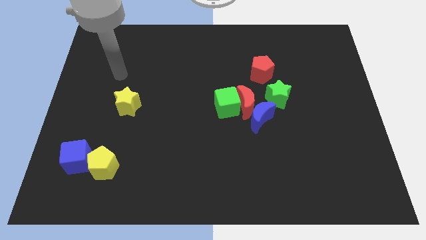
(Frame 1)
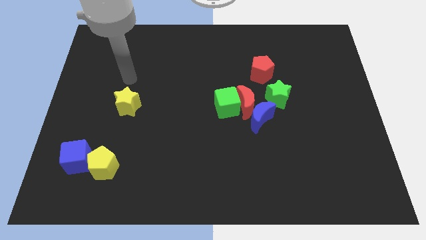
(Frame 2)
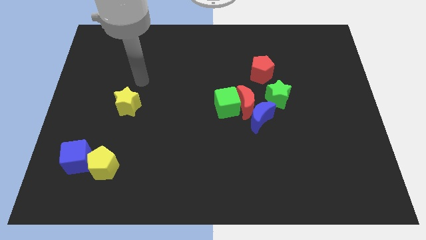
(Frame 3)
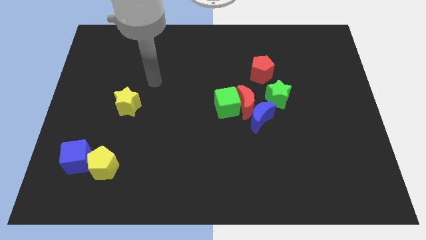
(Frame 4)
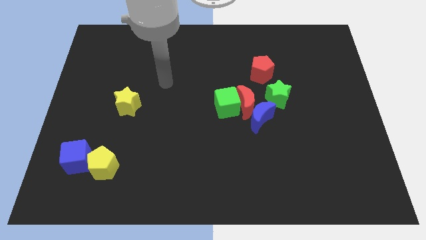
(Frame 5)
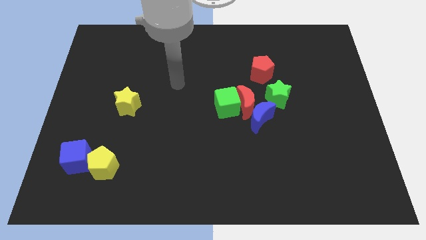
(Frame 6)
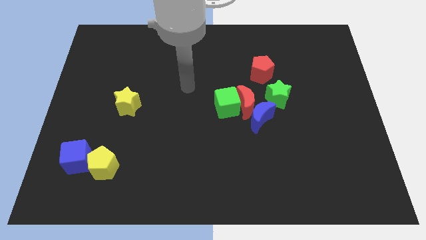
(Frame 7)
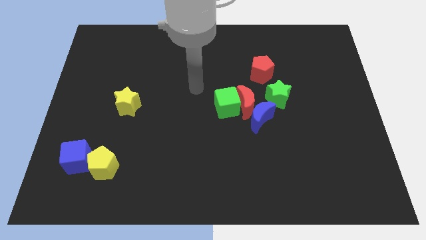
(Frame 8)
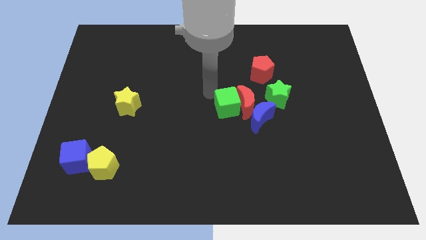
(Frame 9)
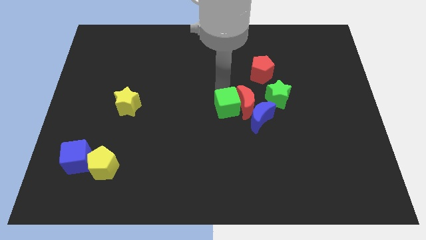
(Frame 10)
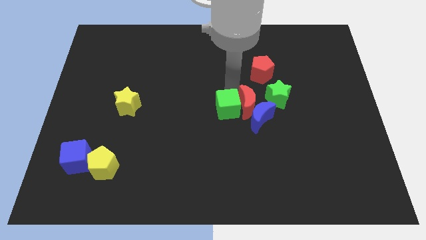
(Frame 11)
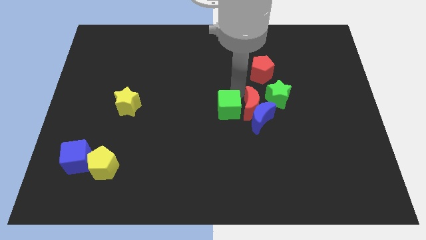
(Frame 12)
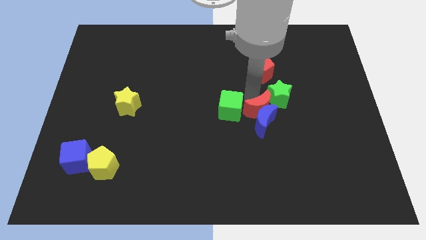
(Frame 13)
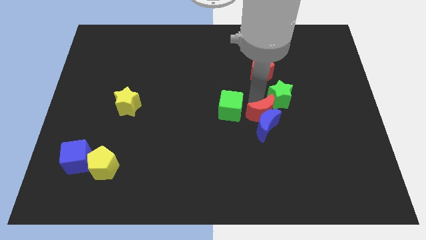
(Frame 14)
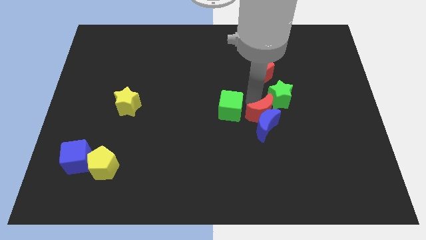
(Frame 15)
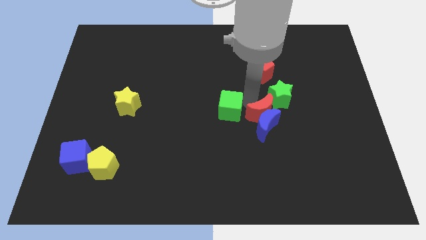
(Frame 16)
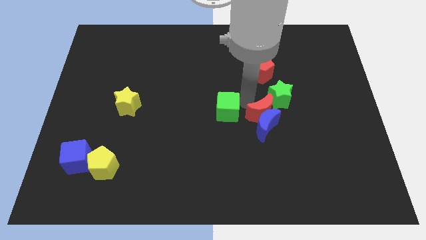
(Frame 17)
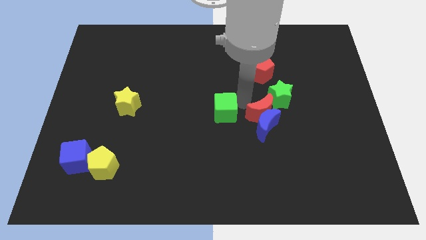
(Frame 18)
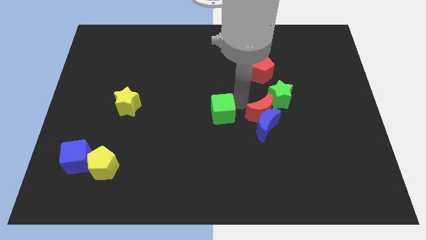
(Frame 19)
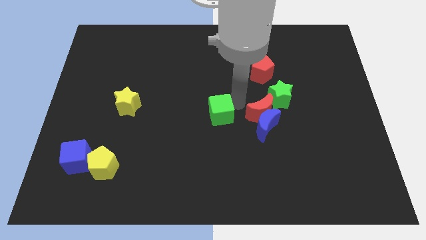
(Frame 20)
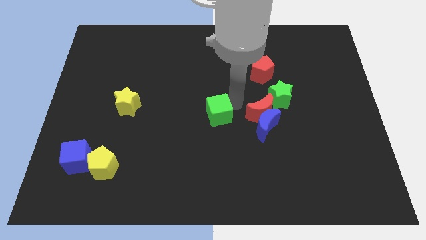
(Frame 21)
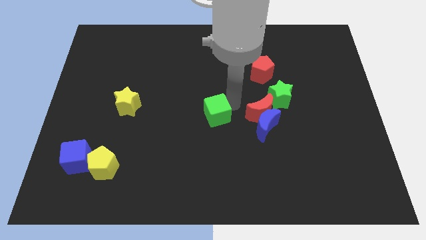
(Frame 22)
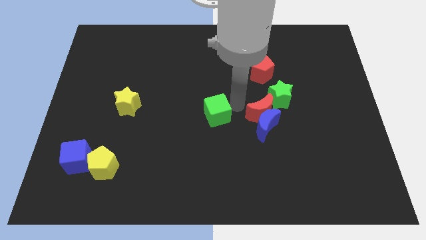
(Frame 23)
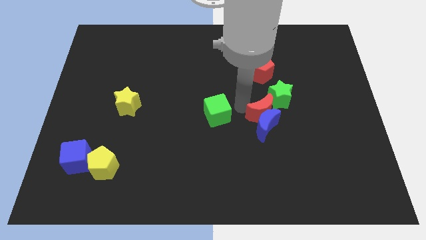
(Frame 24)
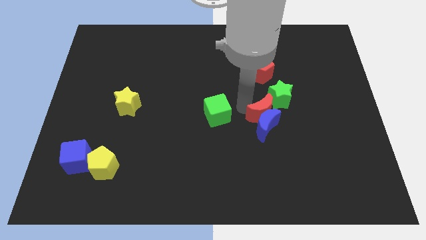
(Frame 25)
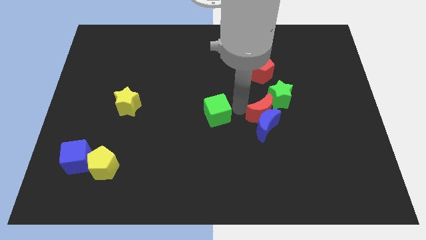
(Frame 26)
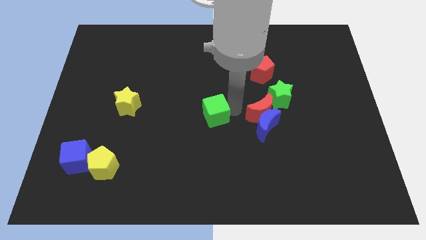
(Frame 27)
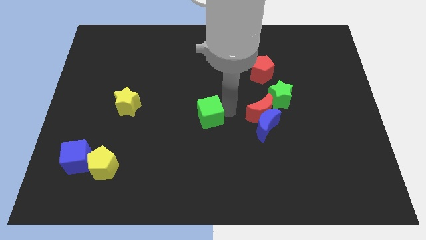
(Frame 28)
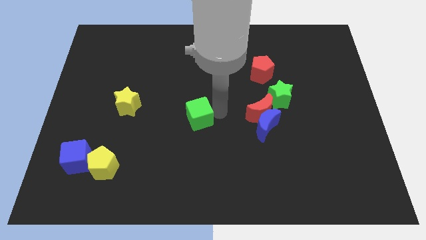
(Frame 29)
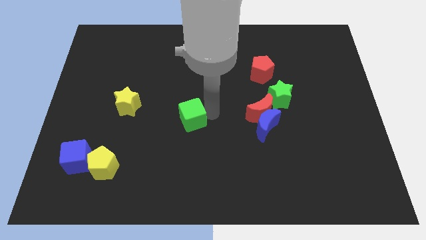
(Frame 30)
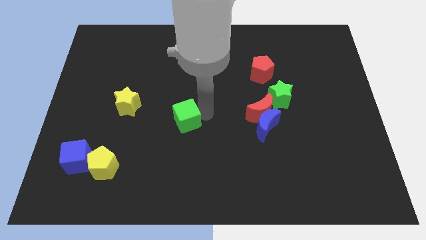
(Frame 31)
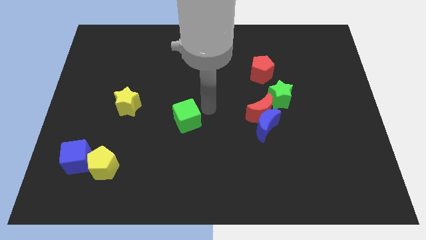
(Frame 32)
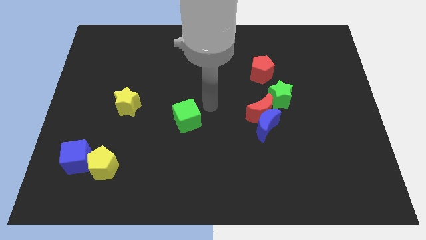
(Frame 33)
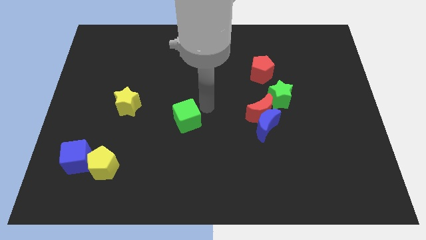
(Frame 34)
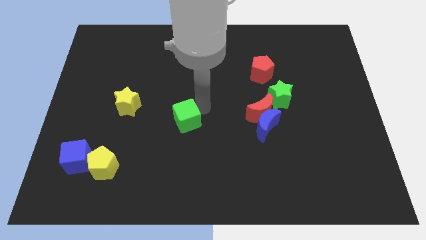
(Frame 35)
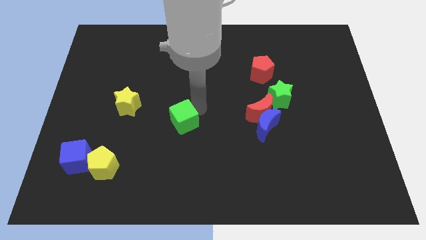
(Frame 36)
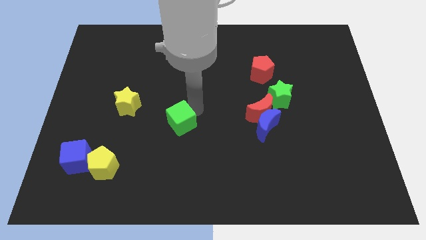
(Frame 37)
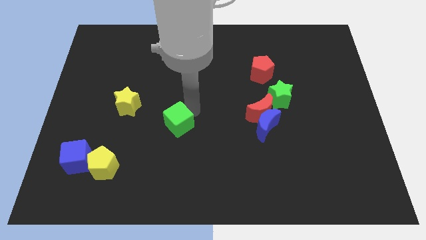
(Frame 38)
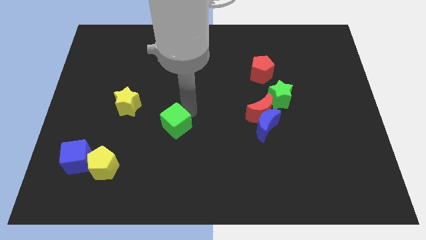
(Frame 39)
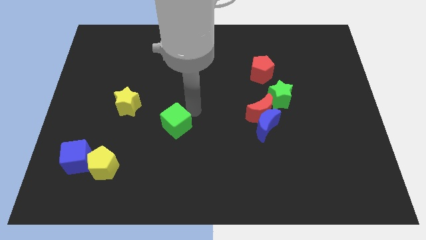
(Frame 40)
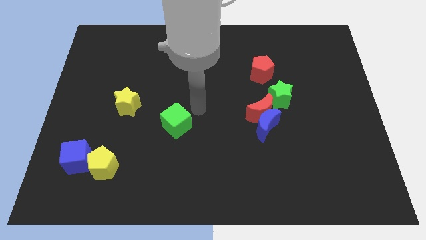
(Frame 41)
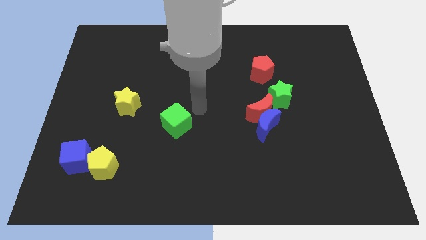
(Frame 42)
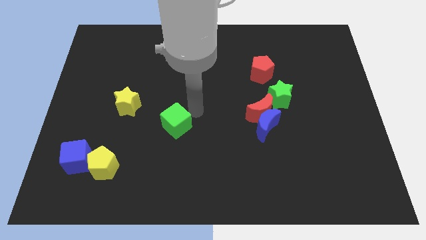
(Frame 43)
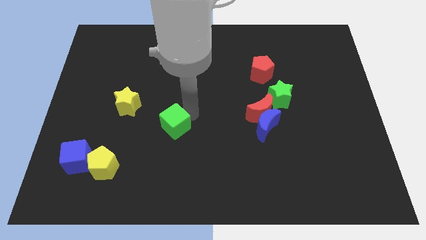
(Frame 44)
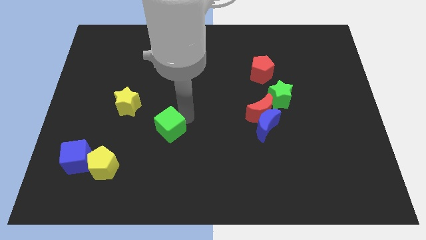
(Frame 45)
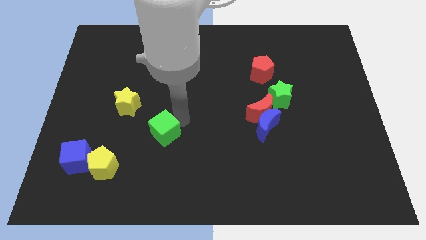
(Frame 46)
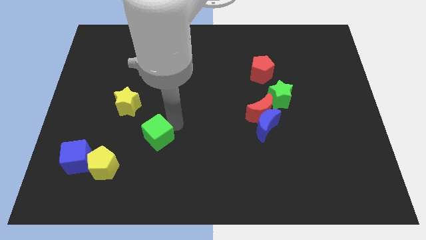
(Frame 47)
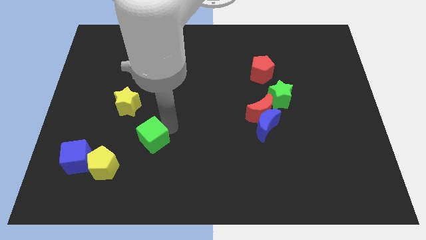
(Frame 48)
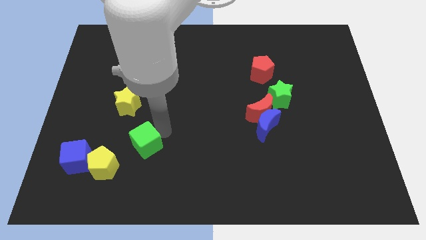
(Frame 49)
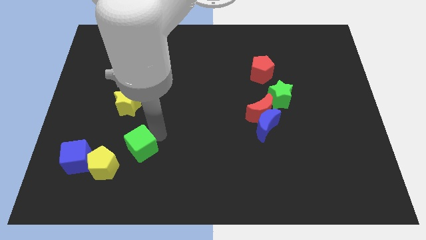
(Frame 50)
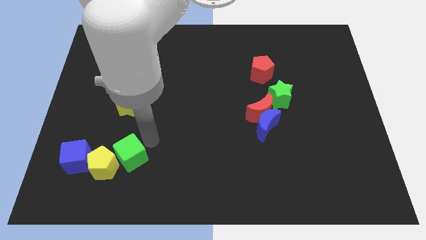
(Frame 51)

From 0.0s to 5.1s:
move the green cube to the yellow pentagon

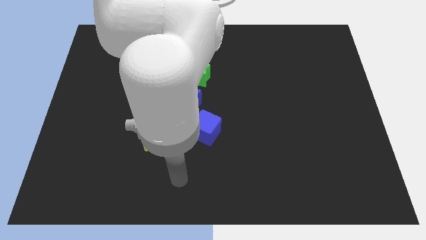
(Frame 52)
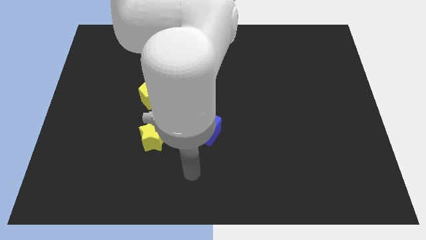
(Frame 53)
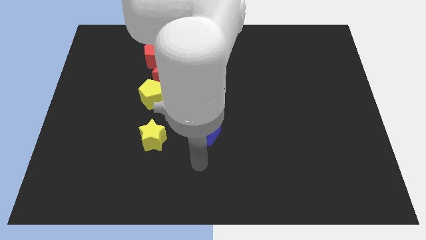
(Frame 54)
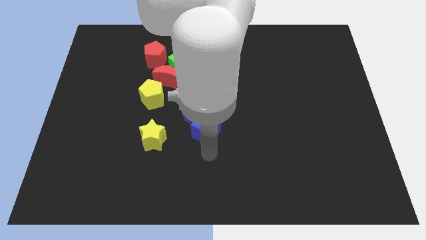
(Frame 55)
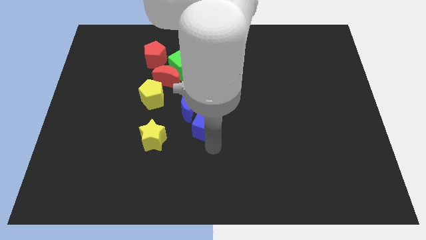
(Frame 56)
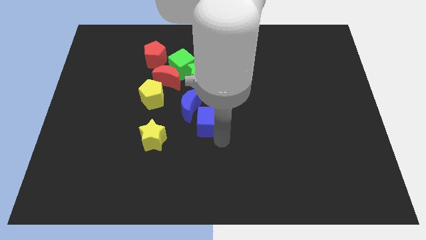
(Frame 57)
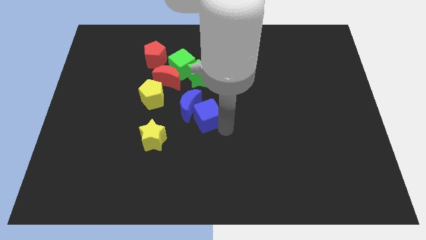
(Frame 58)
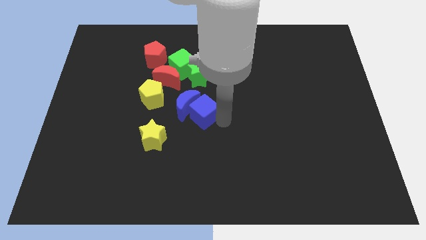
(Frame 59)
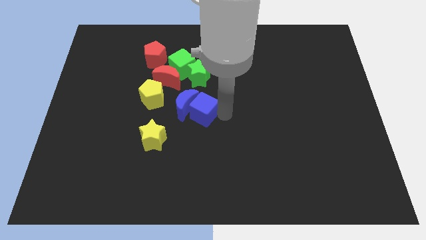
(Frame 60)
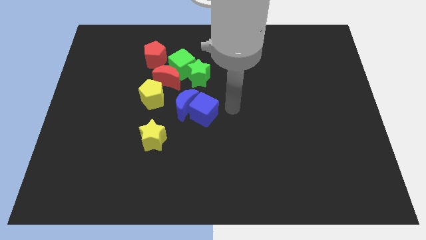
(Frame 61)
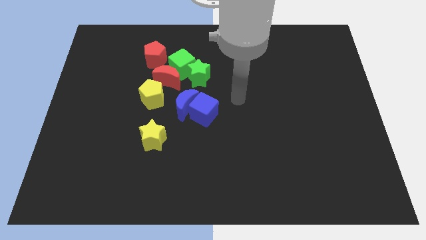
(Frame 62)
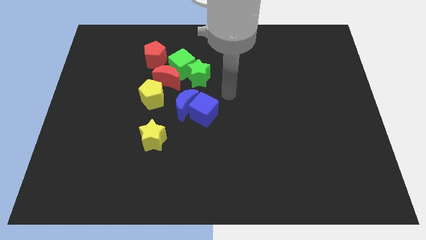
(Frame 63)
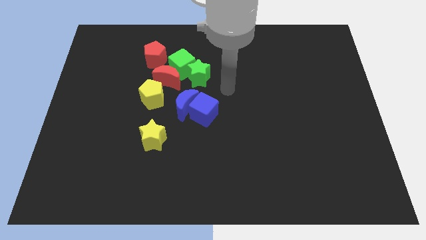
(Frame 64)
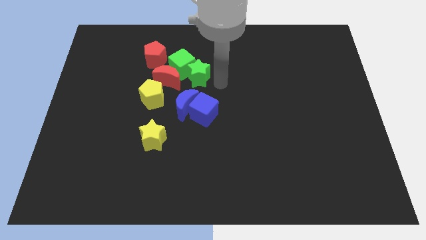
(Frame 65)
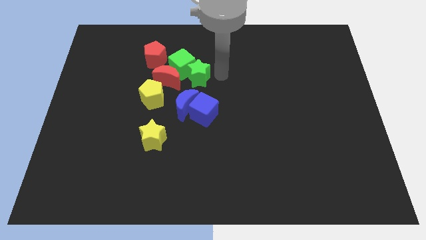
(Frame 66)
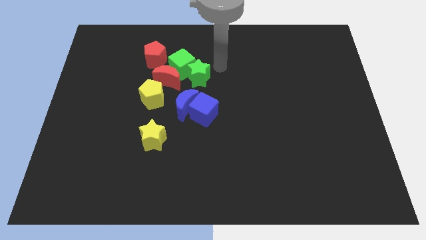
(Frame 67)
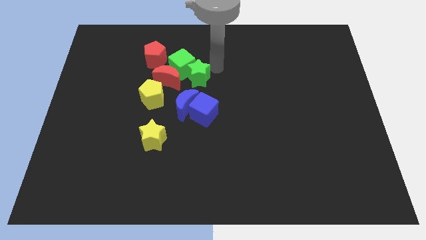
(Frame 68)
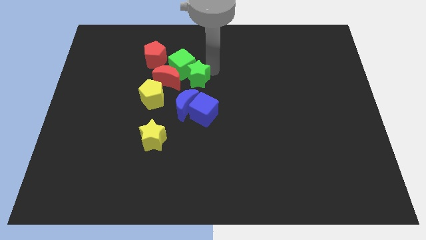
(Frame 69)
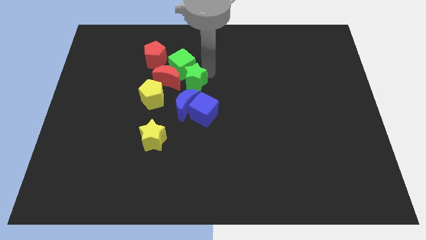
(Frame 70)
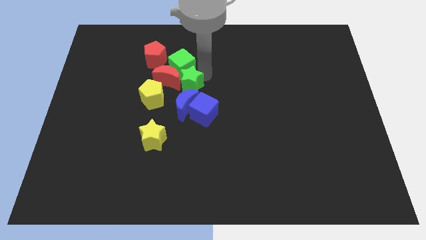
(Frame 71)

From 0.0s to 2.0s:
slide the green star to the red moon

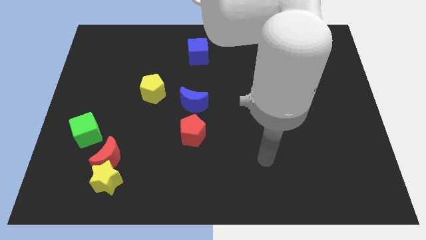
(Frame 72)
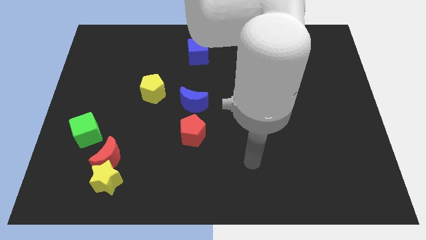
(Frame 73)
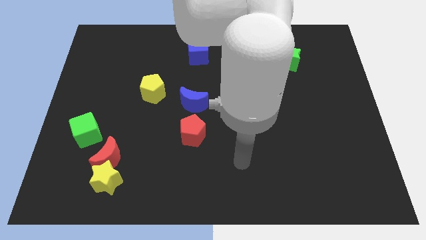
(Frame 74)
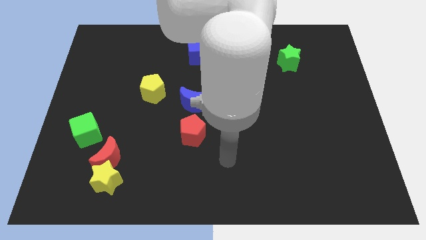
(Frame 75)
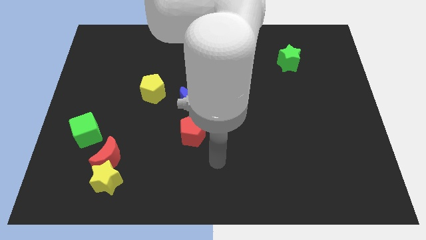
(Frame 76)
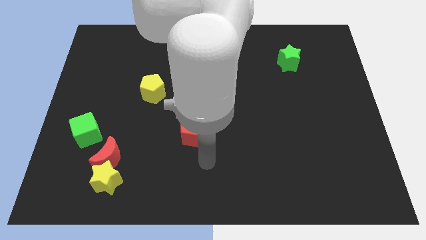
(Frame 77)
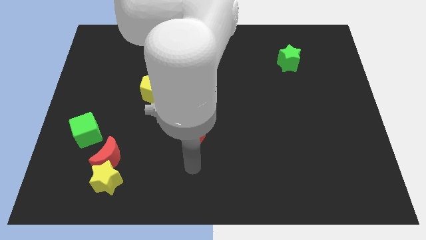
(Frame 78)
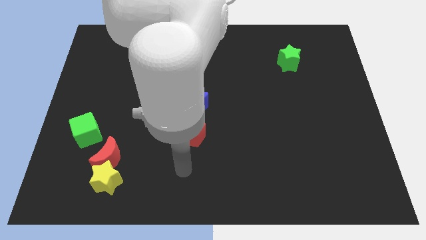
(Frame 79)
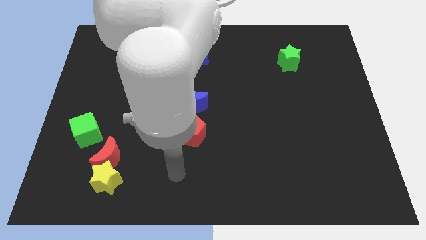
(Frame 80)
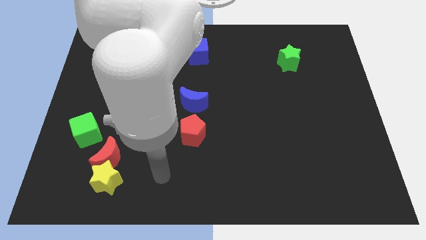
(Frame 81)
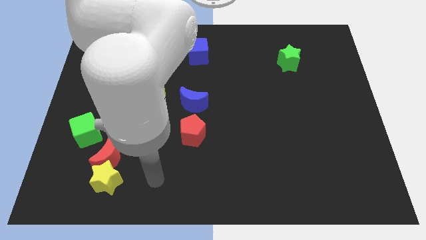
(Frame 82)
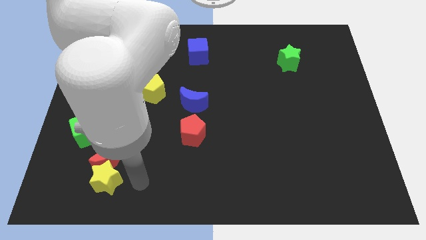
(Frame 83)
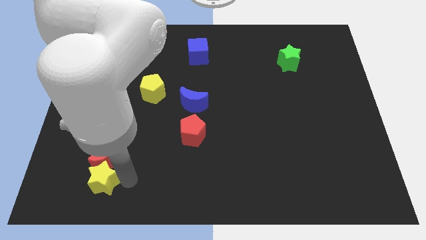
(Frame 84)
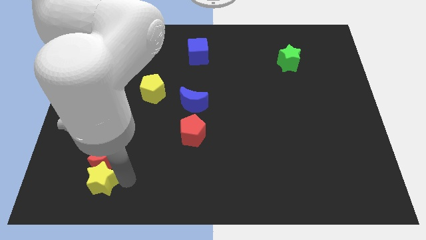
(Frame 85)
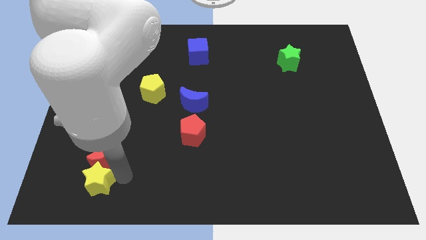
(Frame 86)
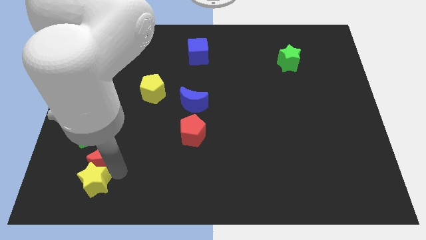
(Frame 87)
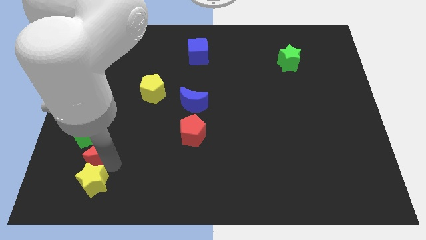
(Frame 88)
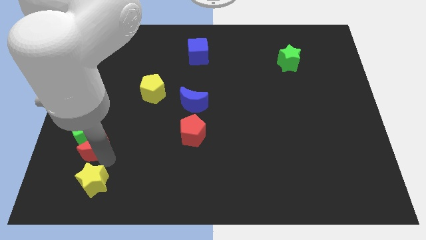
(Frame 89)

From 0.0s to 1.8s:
move the red moon close to the green cube

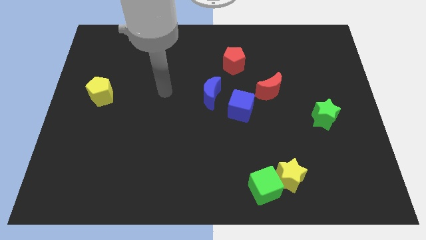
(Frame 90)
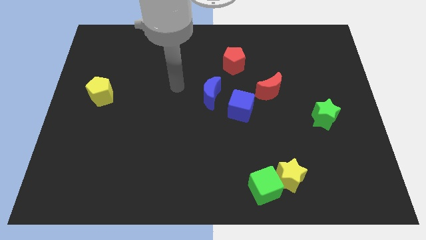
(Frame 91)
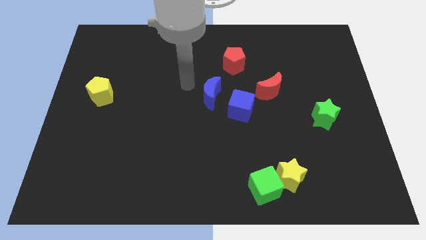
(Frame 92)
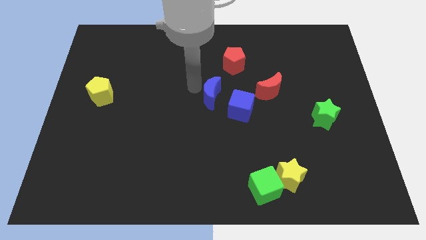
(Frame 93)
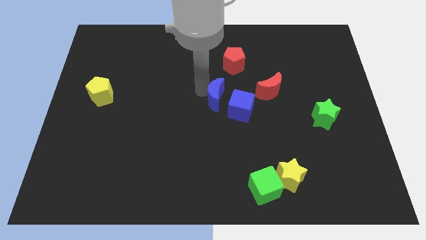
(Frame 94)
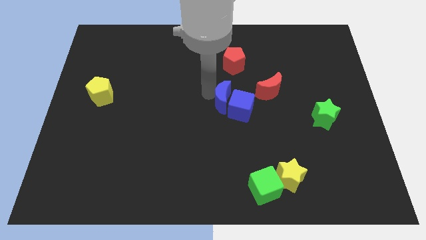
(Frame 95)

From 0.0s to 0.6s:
slide the blue moon close to the blue cube
